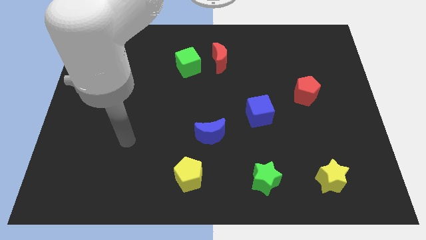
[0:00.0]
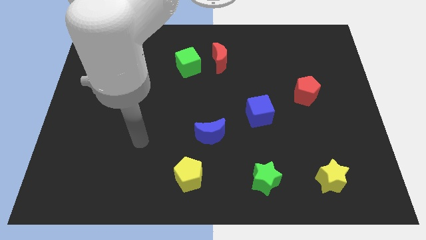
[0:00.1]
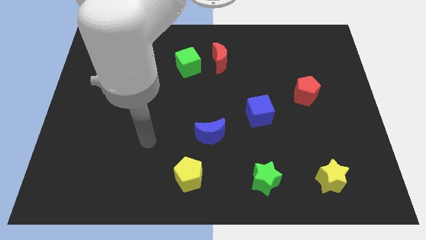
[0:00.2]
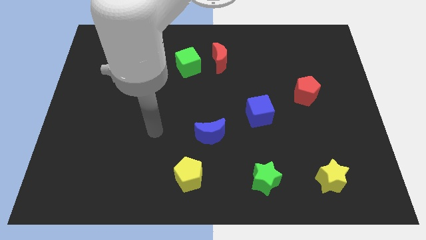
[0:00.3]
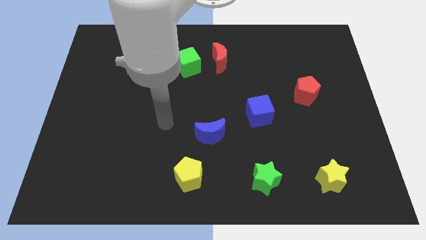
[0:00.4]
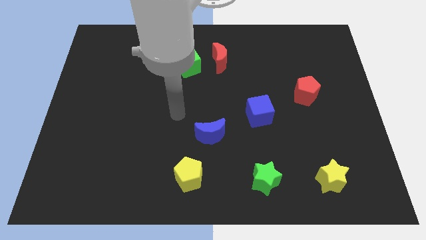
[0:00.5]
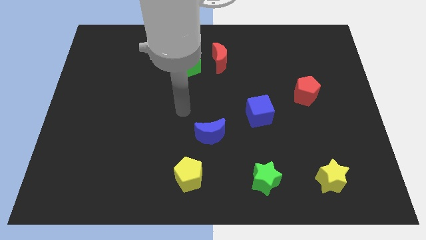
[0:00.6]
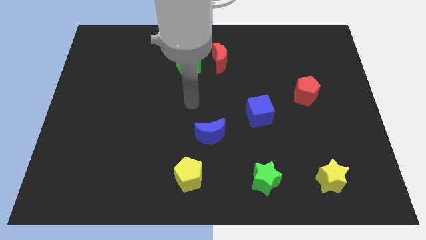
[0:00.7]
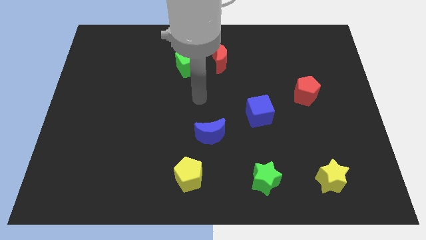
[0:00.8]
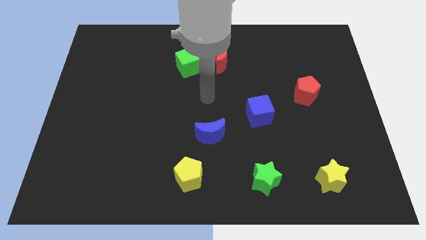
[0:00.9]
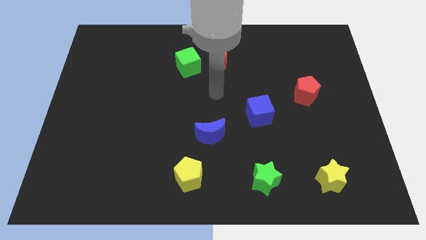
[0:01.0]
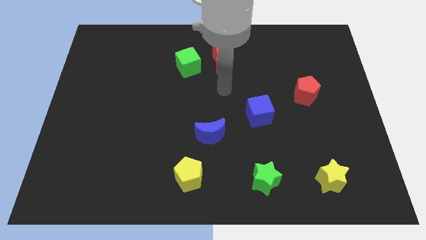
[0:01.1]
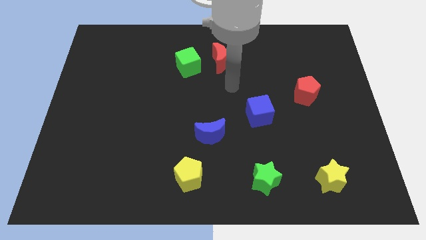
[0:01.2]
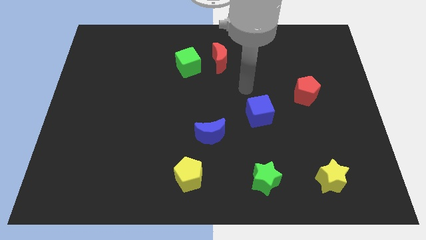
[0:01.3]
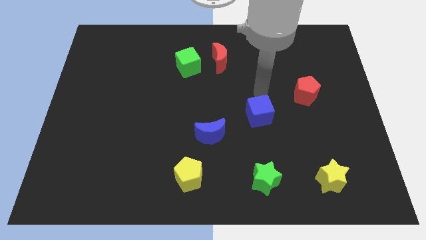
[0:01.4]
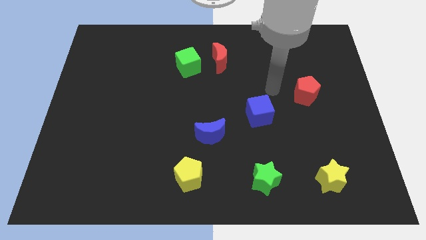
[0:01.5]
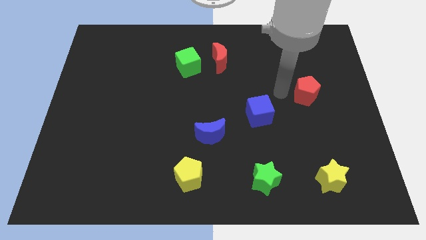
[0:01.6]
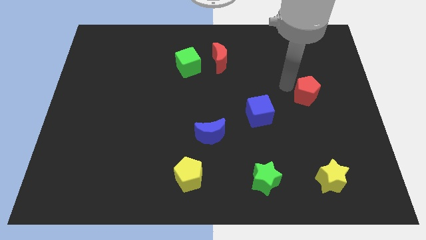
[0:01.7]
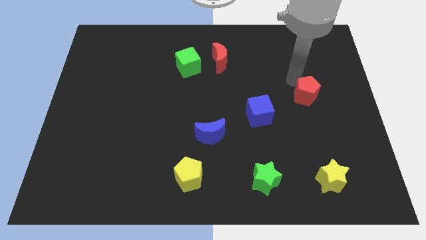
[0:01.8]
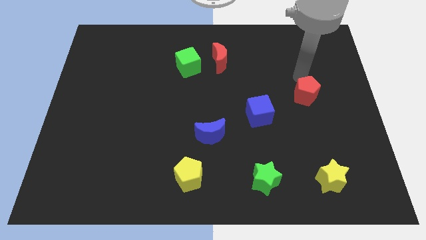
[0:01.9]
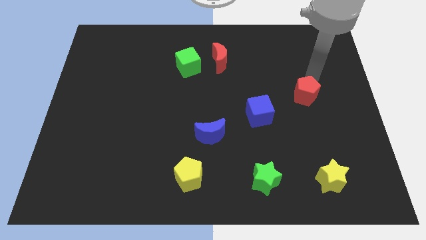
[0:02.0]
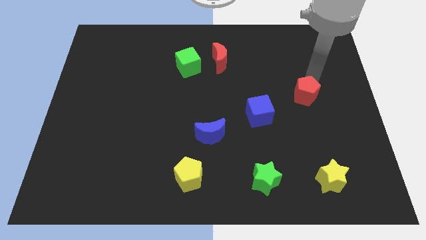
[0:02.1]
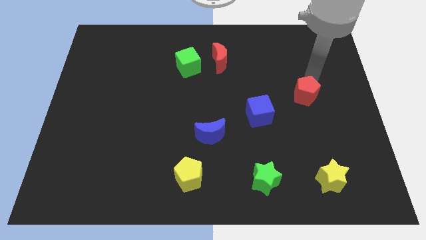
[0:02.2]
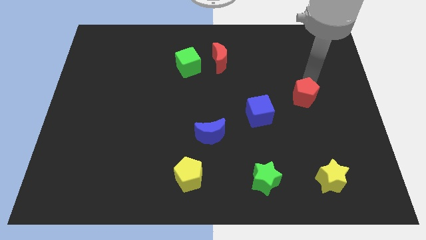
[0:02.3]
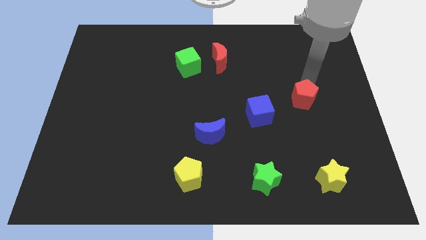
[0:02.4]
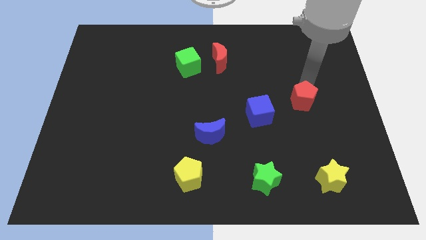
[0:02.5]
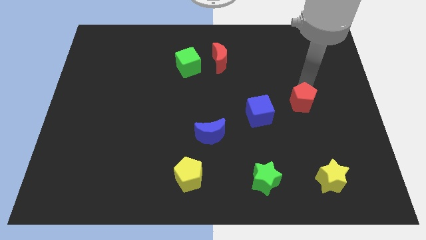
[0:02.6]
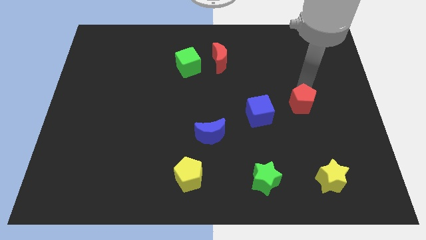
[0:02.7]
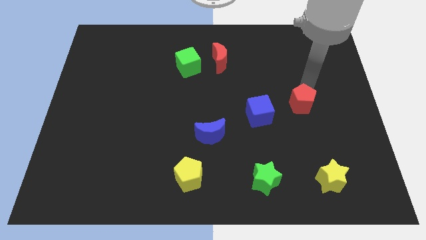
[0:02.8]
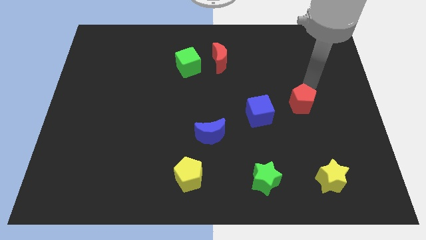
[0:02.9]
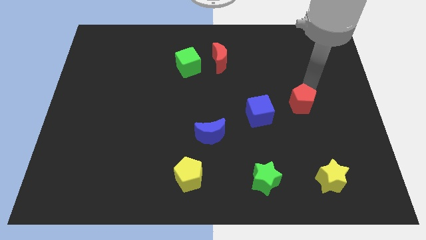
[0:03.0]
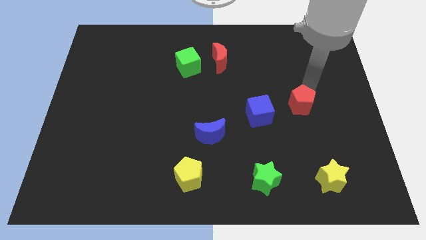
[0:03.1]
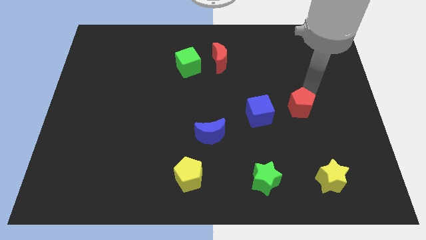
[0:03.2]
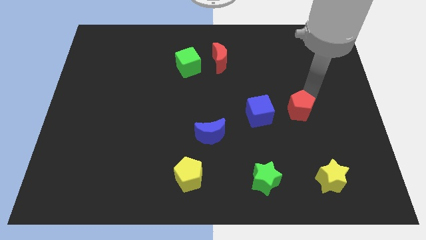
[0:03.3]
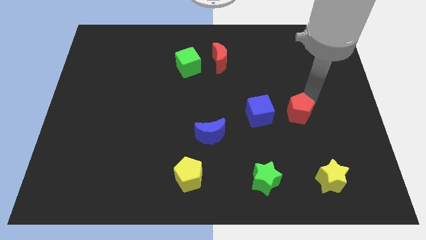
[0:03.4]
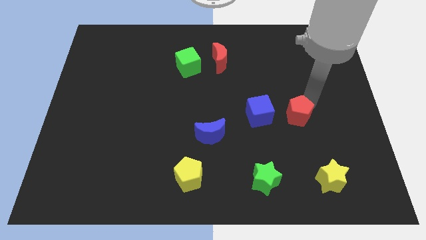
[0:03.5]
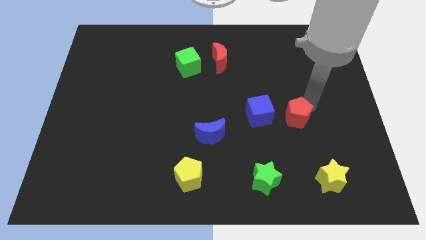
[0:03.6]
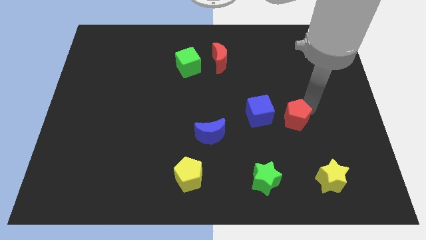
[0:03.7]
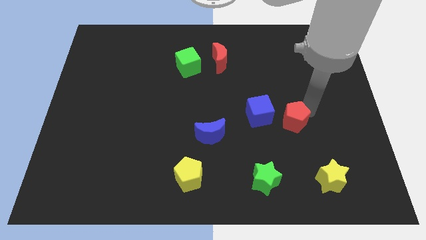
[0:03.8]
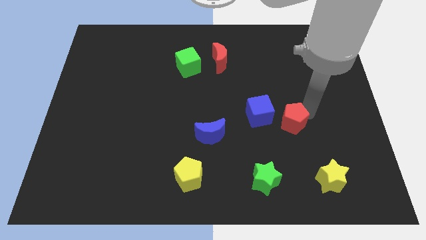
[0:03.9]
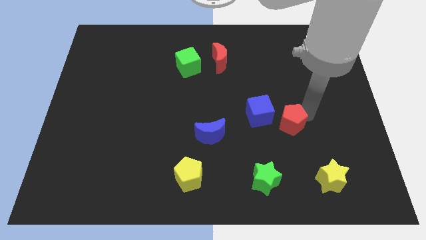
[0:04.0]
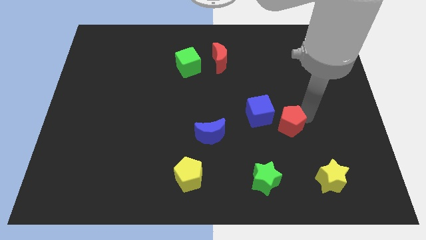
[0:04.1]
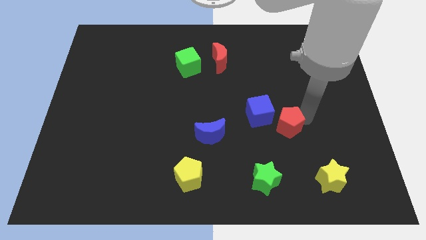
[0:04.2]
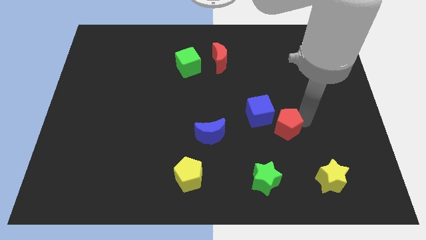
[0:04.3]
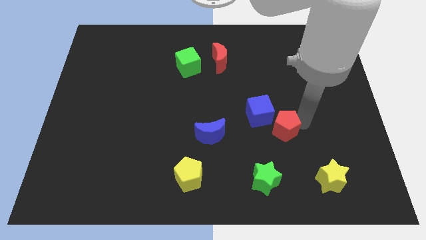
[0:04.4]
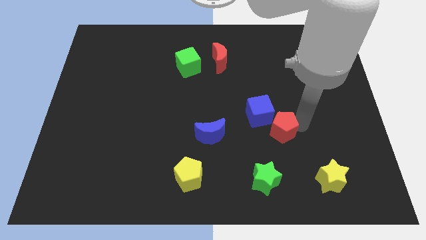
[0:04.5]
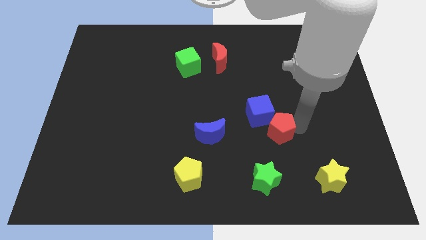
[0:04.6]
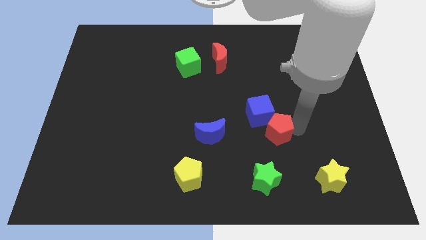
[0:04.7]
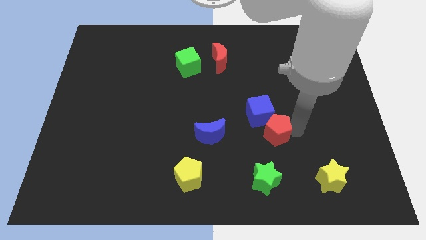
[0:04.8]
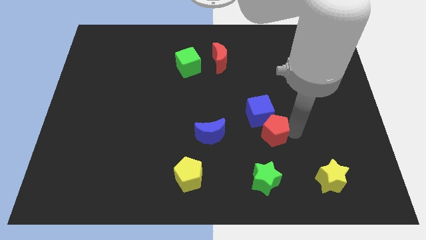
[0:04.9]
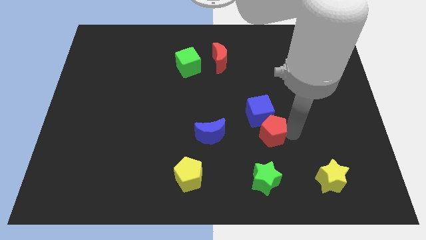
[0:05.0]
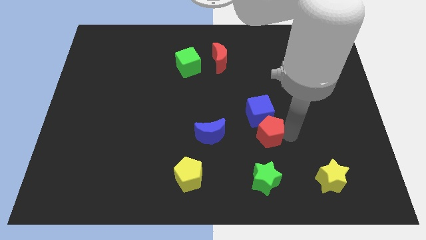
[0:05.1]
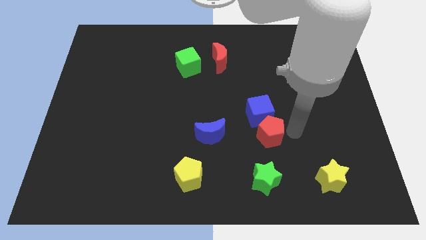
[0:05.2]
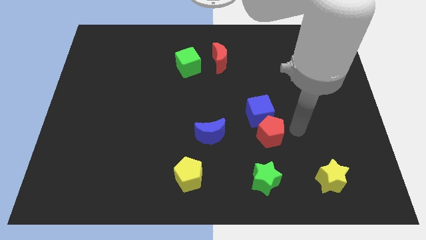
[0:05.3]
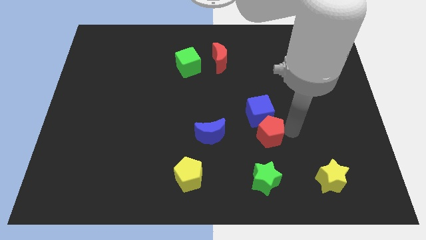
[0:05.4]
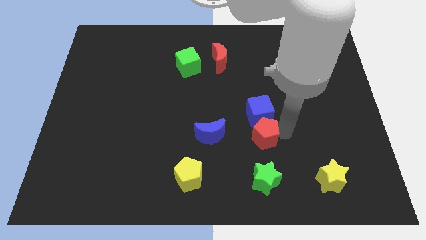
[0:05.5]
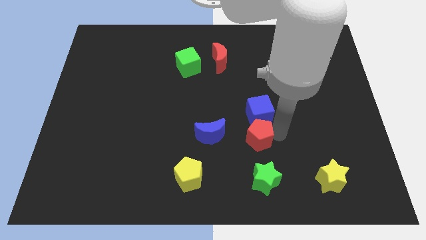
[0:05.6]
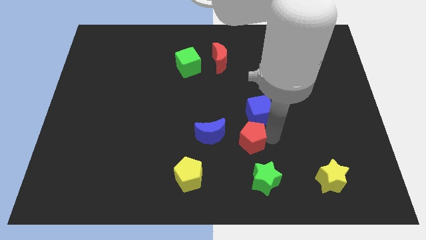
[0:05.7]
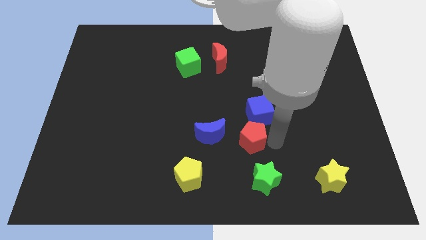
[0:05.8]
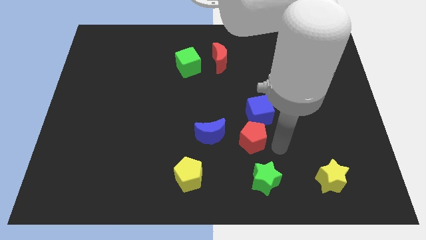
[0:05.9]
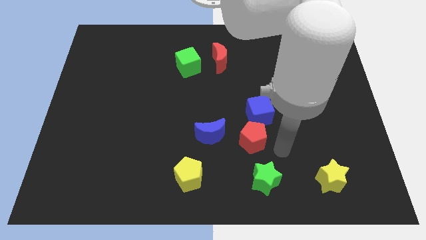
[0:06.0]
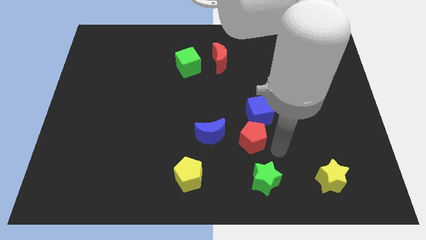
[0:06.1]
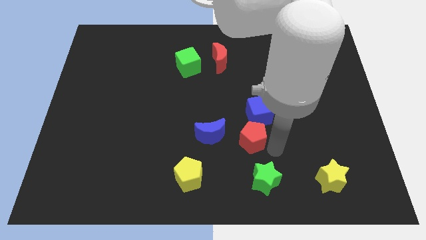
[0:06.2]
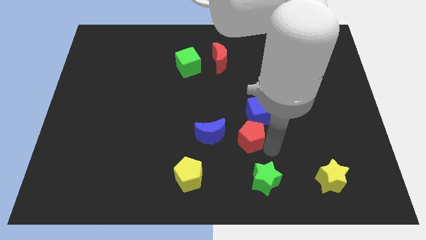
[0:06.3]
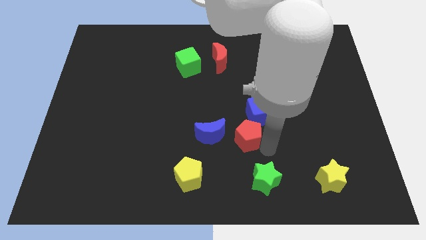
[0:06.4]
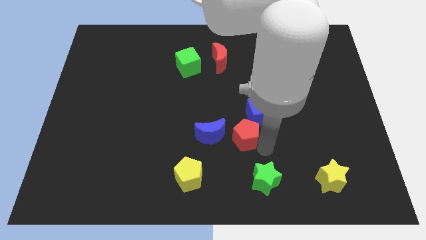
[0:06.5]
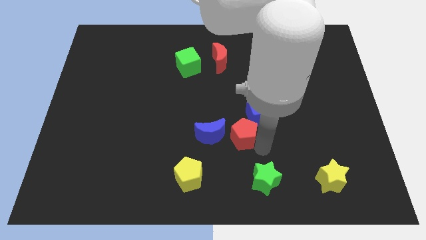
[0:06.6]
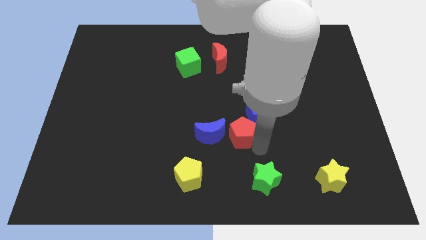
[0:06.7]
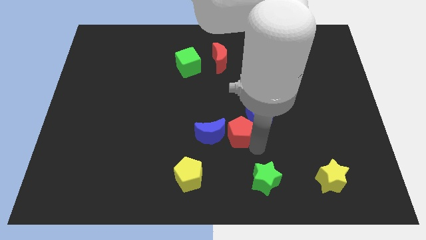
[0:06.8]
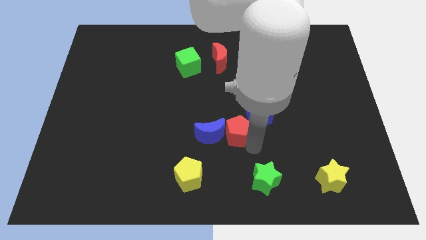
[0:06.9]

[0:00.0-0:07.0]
push the red pentagon towards the blue moon
